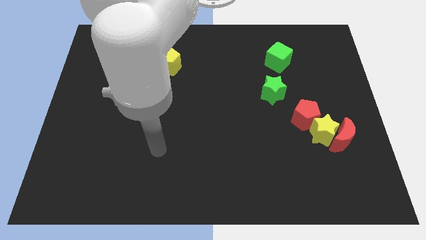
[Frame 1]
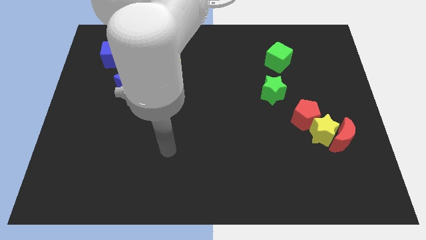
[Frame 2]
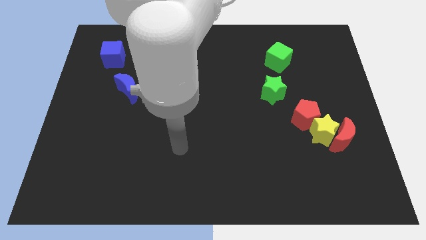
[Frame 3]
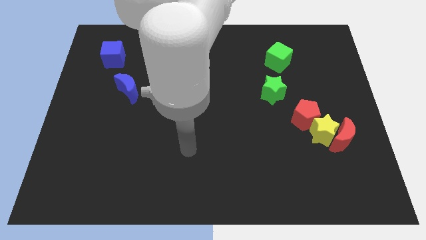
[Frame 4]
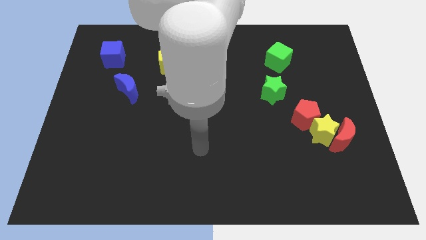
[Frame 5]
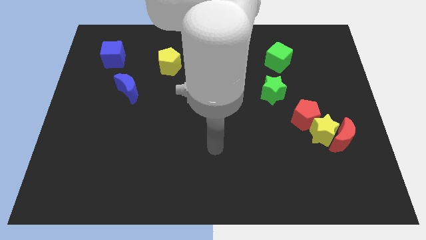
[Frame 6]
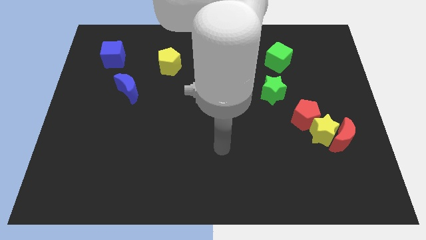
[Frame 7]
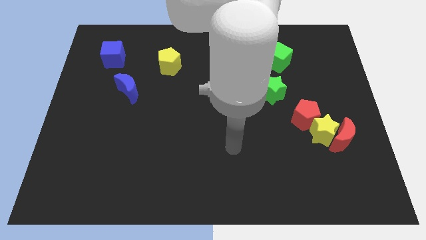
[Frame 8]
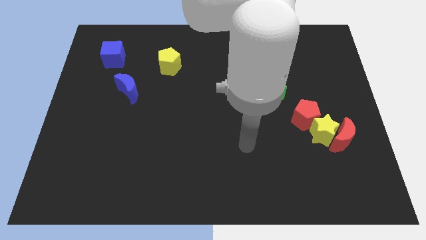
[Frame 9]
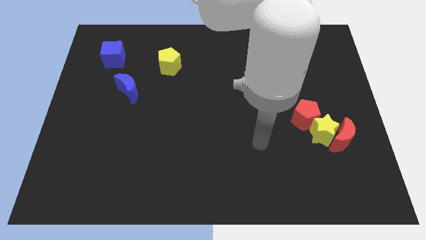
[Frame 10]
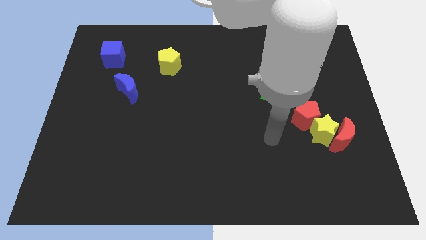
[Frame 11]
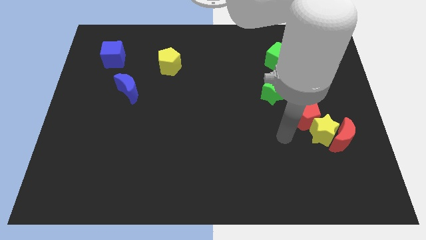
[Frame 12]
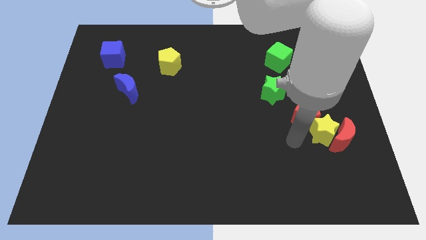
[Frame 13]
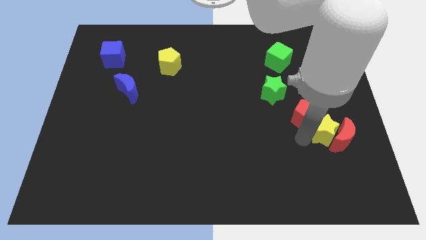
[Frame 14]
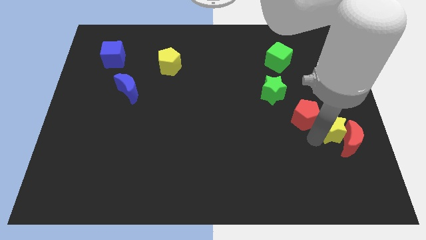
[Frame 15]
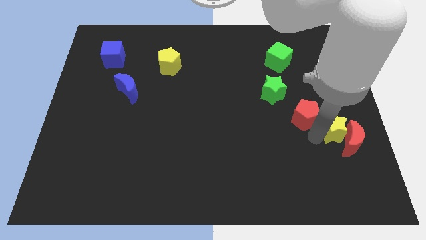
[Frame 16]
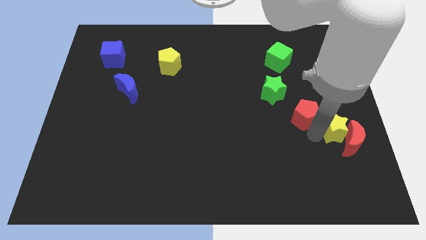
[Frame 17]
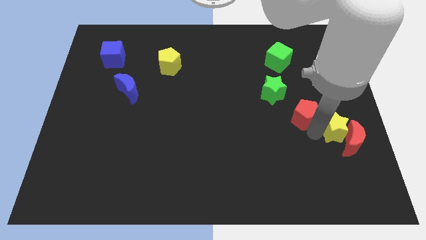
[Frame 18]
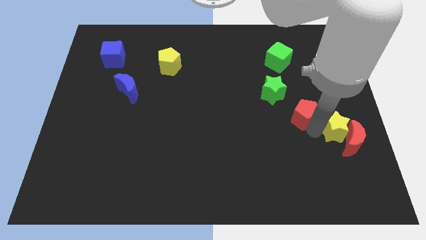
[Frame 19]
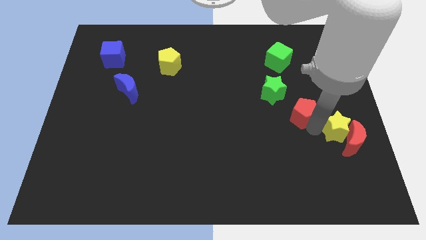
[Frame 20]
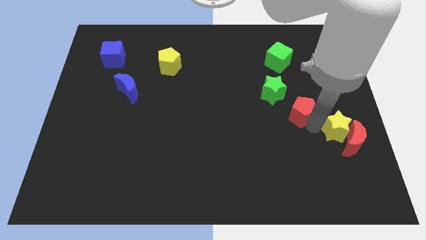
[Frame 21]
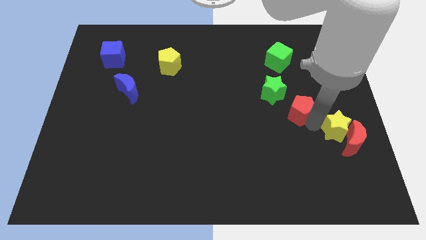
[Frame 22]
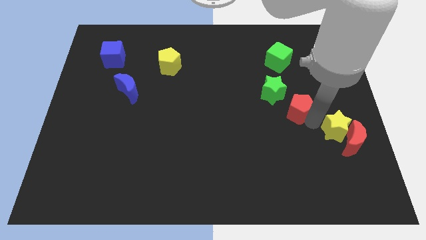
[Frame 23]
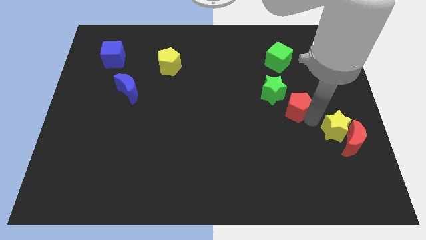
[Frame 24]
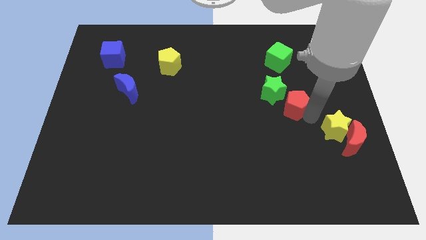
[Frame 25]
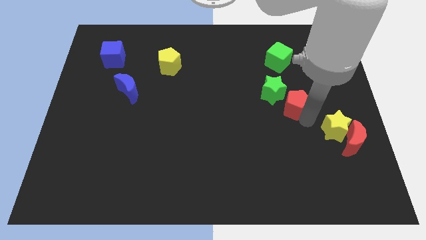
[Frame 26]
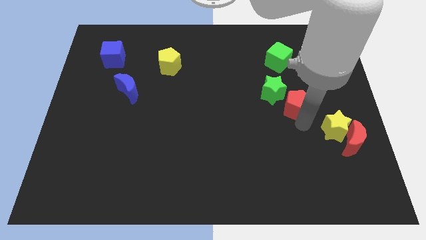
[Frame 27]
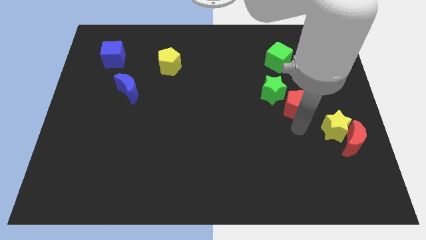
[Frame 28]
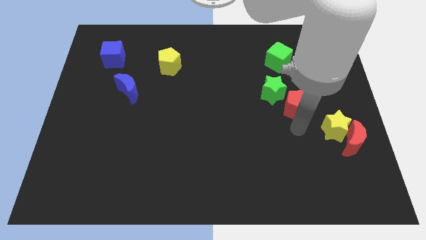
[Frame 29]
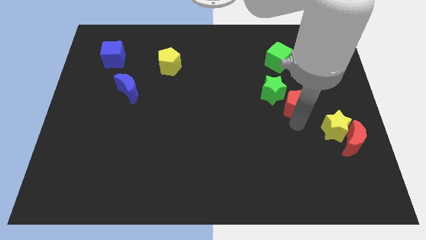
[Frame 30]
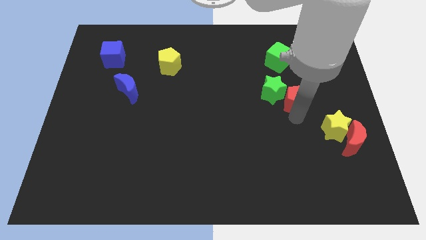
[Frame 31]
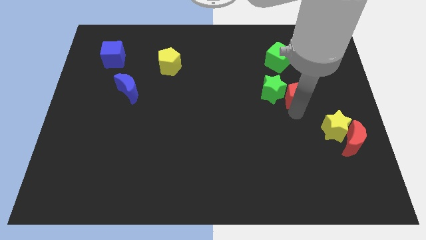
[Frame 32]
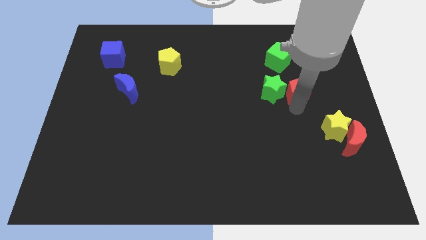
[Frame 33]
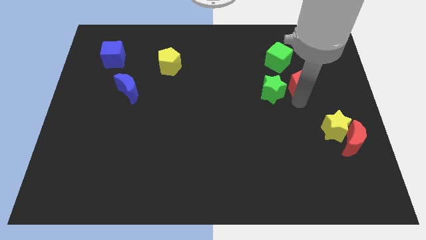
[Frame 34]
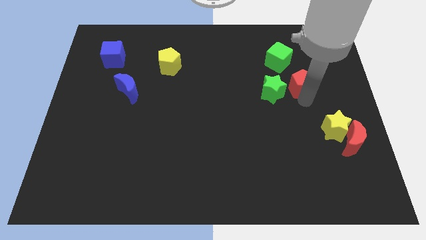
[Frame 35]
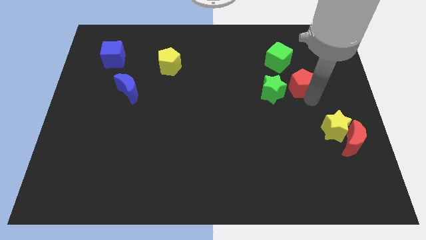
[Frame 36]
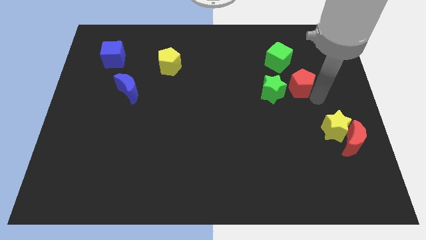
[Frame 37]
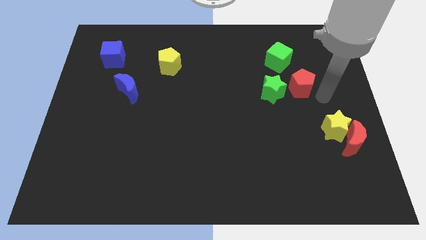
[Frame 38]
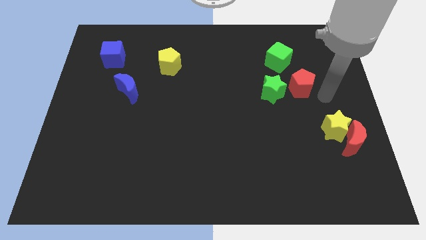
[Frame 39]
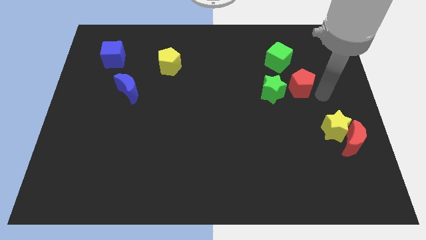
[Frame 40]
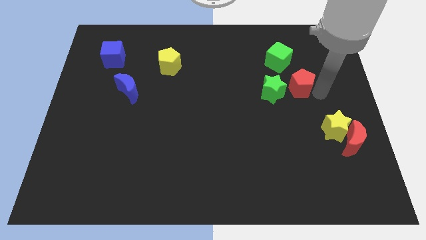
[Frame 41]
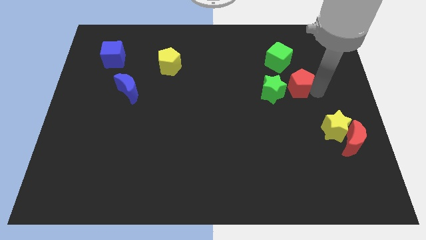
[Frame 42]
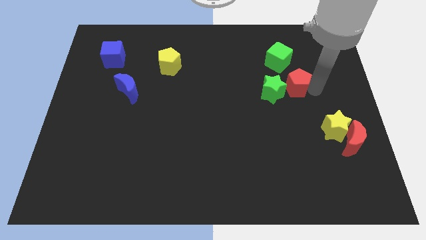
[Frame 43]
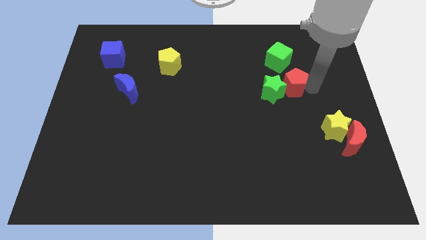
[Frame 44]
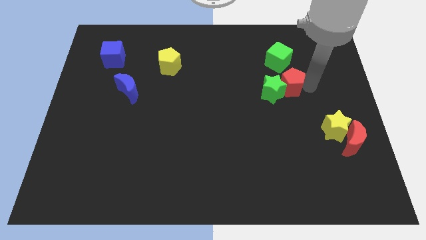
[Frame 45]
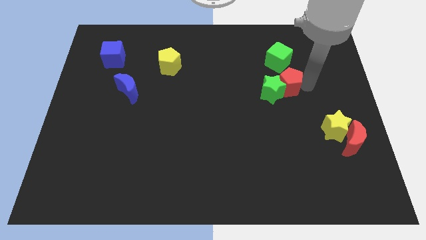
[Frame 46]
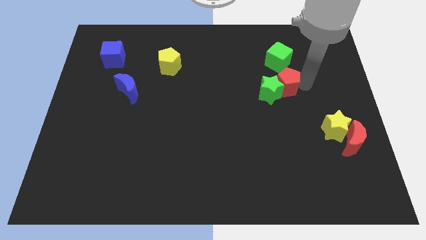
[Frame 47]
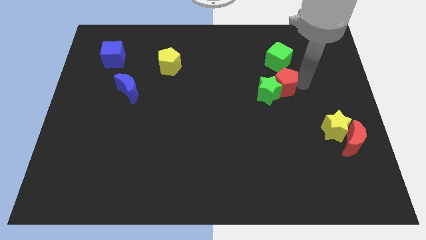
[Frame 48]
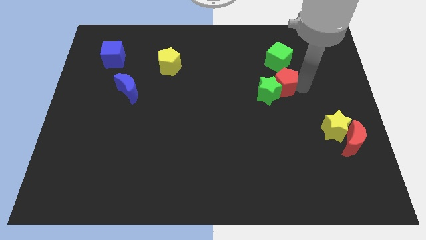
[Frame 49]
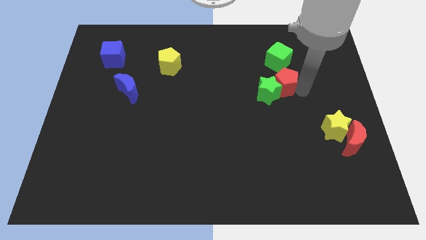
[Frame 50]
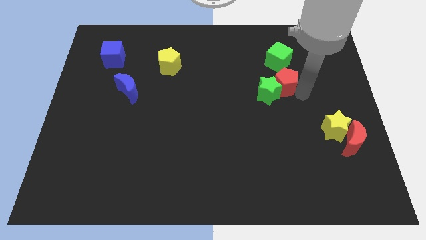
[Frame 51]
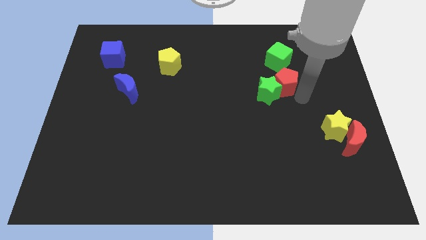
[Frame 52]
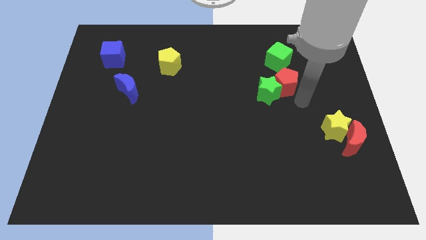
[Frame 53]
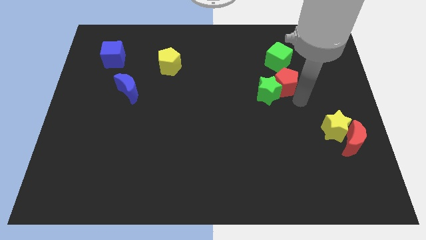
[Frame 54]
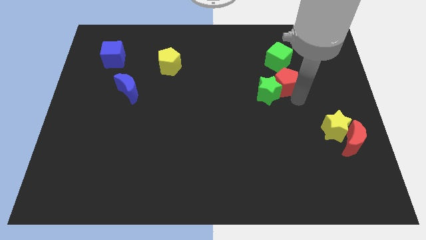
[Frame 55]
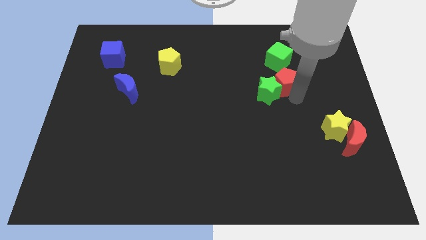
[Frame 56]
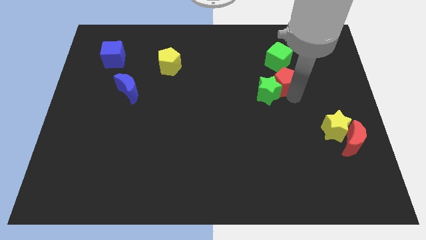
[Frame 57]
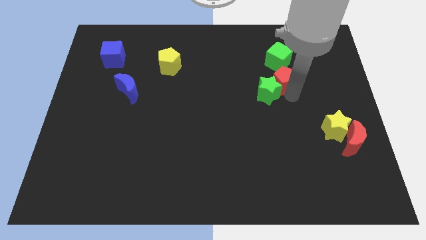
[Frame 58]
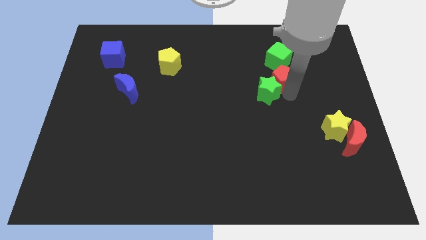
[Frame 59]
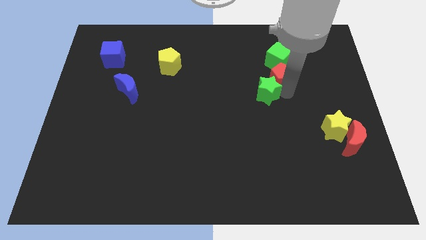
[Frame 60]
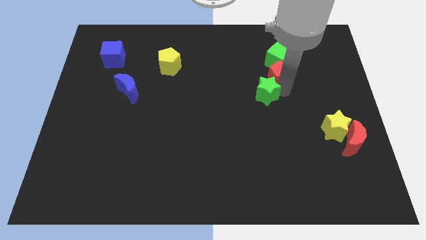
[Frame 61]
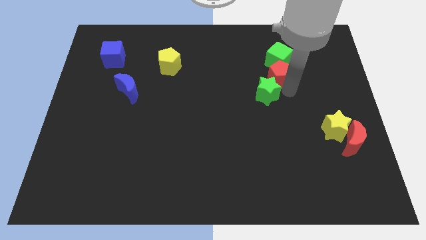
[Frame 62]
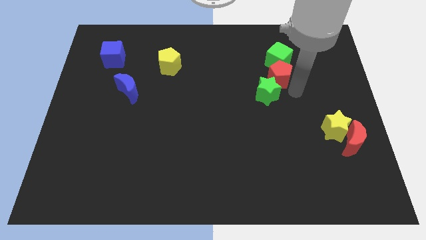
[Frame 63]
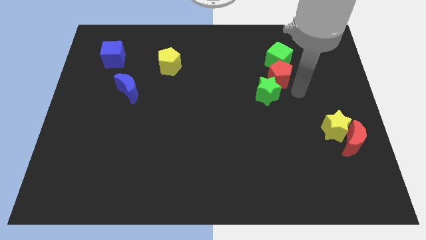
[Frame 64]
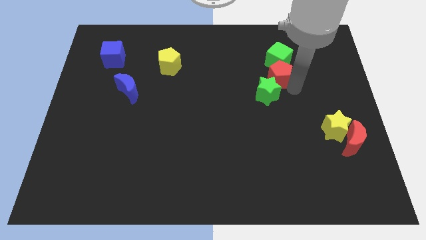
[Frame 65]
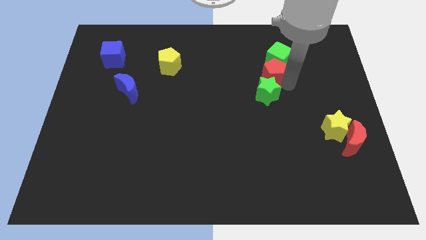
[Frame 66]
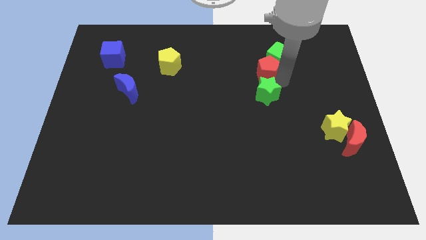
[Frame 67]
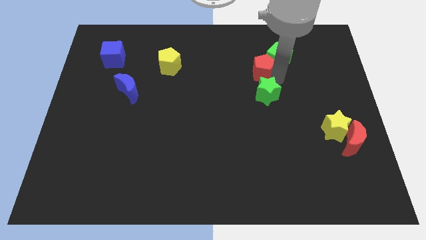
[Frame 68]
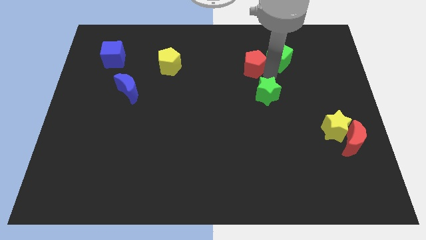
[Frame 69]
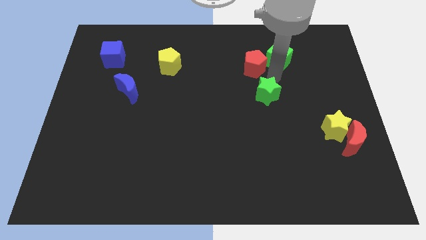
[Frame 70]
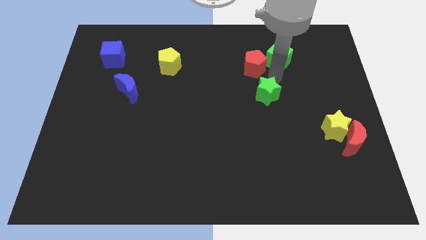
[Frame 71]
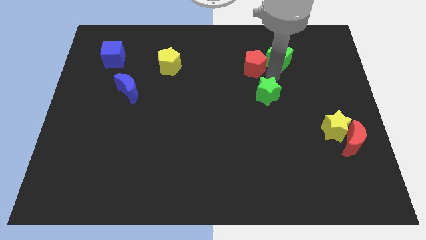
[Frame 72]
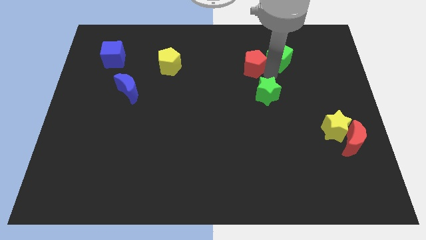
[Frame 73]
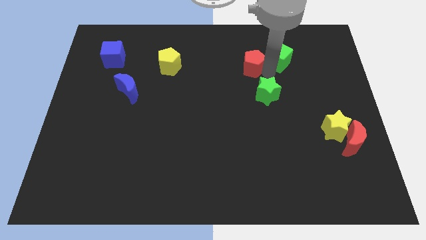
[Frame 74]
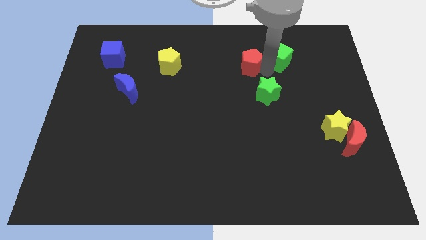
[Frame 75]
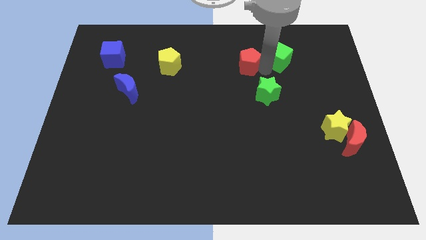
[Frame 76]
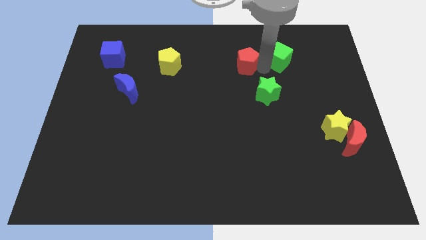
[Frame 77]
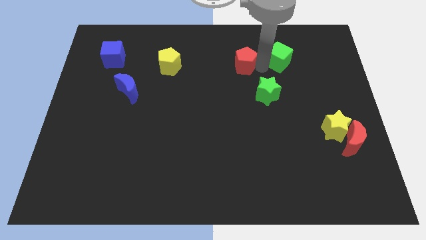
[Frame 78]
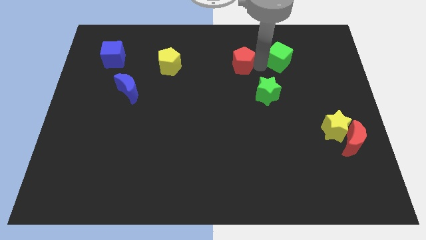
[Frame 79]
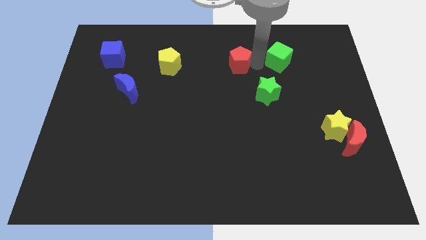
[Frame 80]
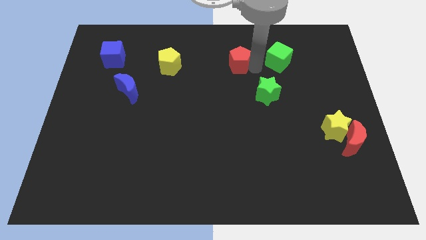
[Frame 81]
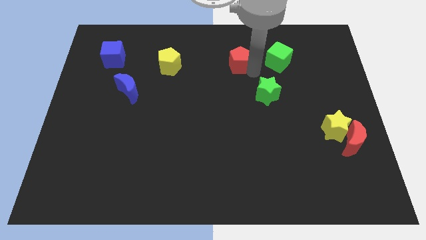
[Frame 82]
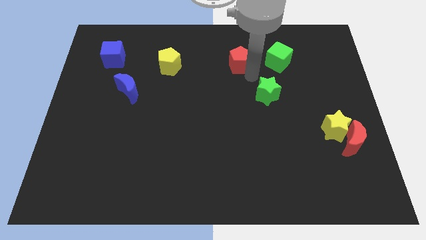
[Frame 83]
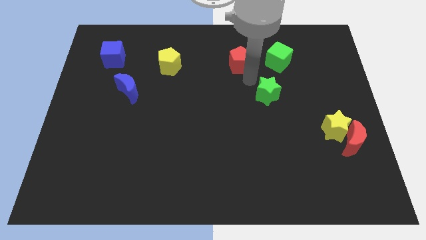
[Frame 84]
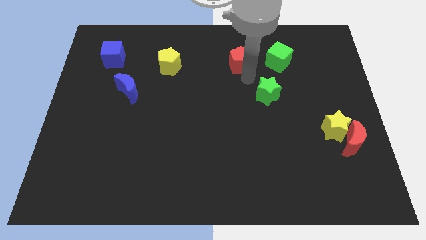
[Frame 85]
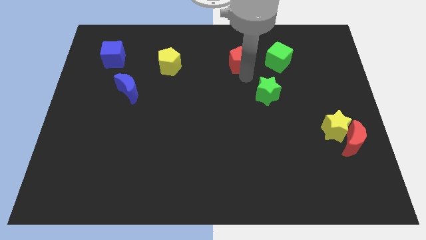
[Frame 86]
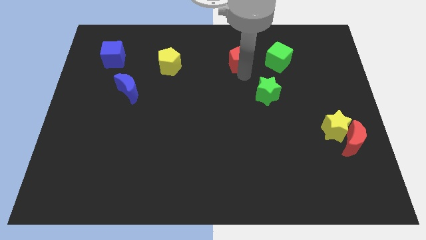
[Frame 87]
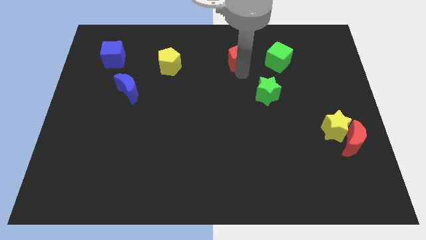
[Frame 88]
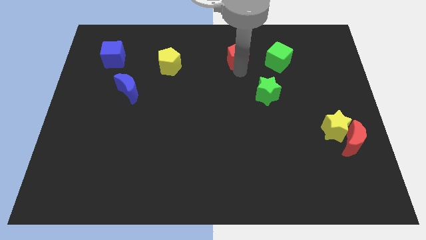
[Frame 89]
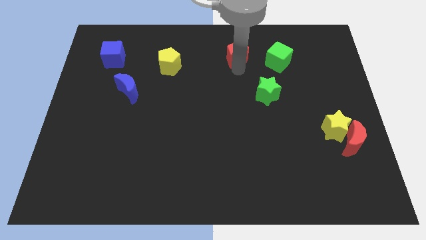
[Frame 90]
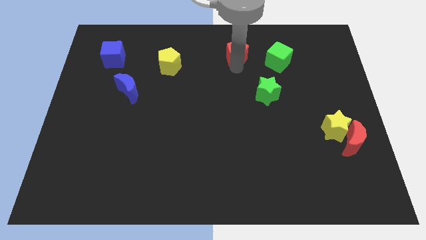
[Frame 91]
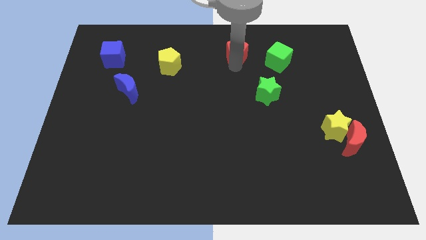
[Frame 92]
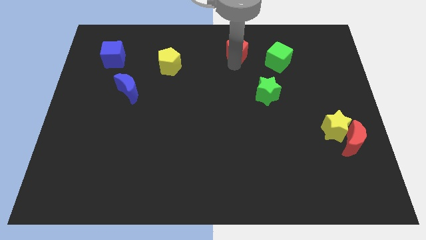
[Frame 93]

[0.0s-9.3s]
push the red pentagon to the towards your base
